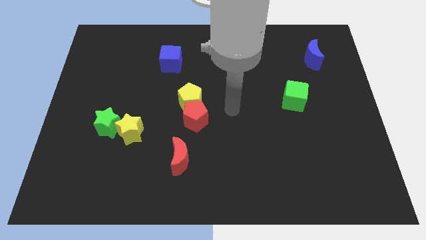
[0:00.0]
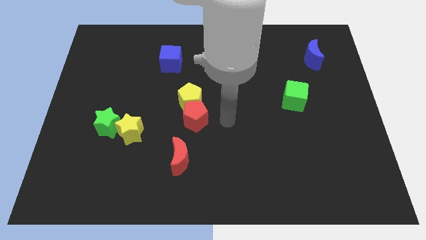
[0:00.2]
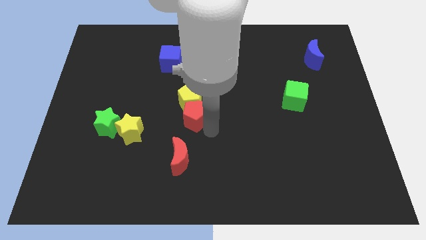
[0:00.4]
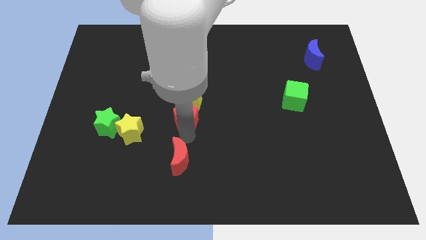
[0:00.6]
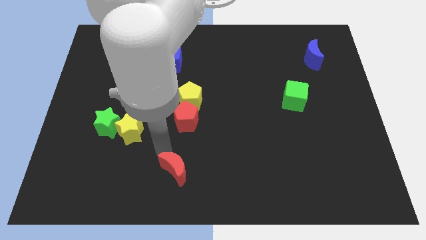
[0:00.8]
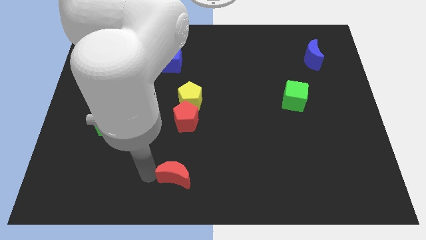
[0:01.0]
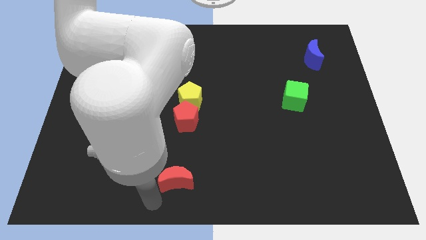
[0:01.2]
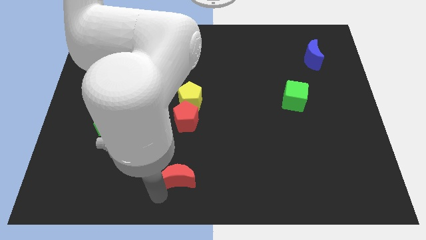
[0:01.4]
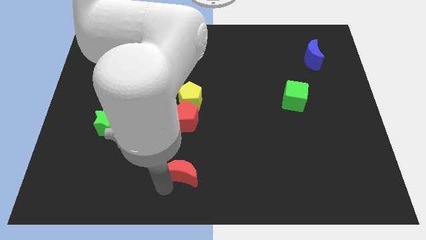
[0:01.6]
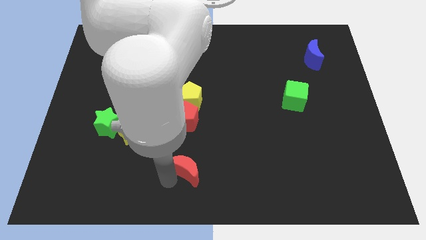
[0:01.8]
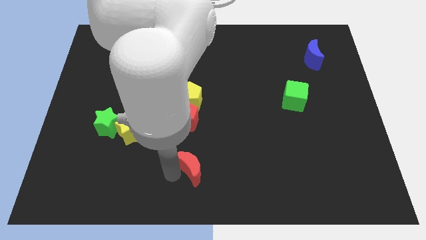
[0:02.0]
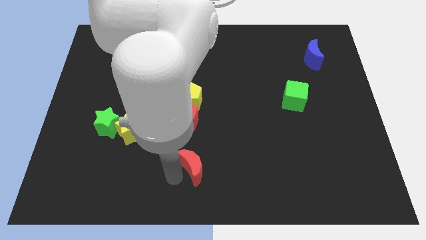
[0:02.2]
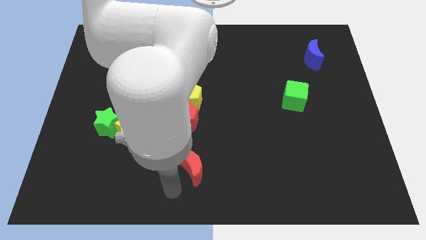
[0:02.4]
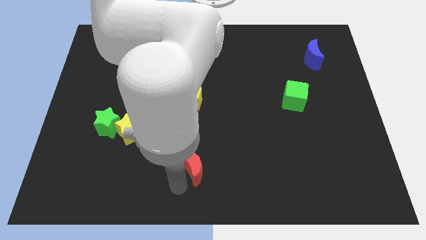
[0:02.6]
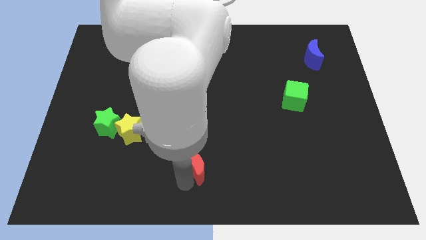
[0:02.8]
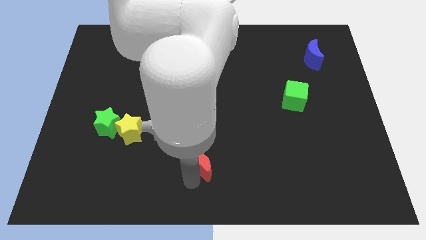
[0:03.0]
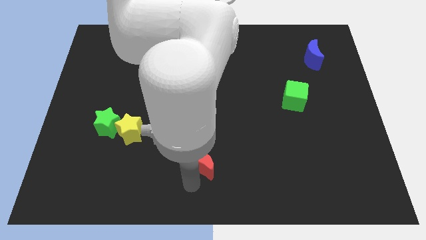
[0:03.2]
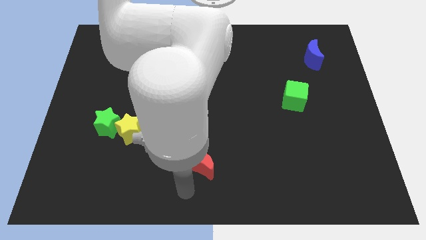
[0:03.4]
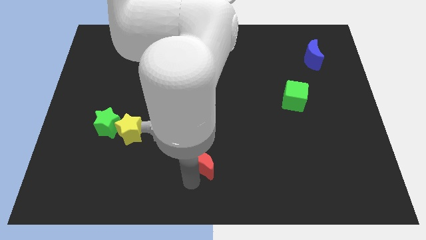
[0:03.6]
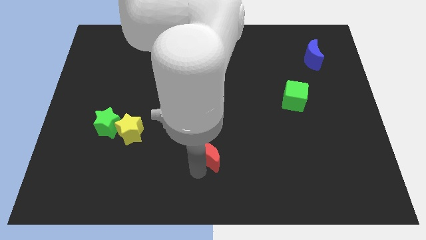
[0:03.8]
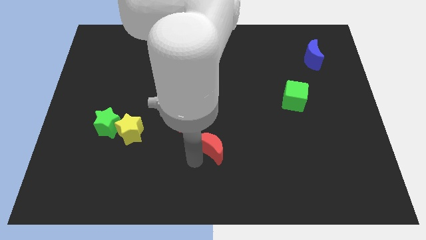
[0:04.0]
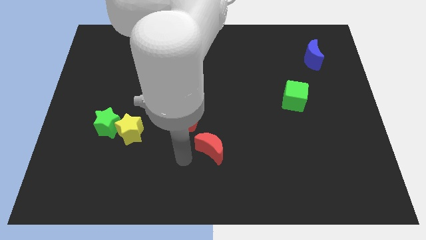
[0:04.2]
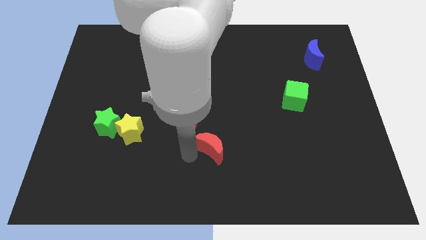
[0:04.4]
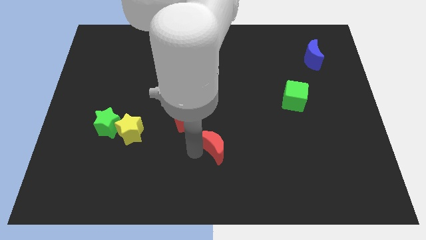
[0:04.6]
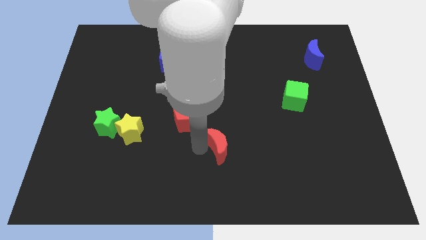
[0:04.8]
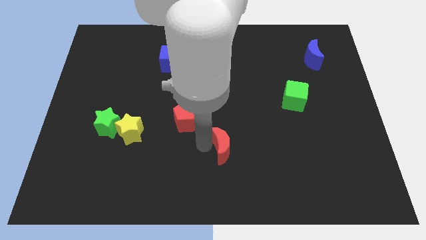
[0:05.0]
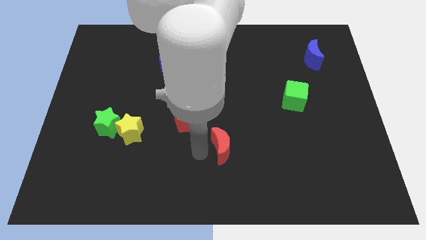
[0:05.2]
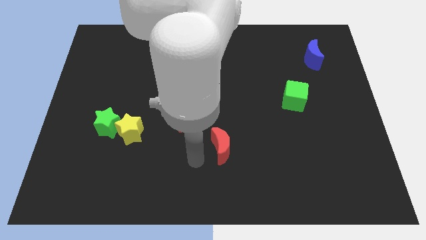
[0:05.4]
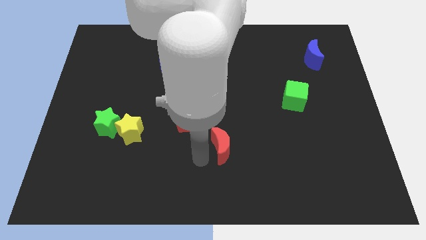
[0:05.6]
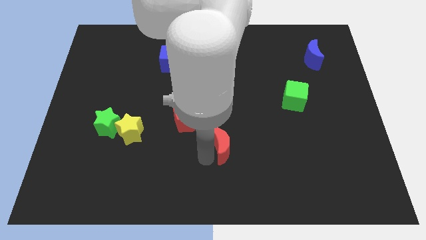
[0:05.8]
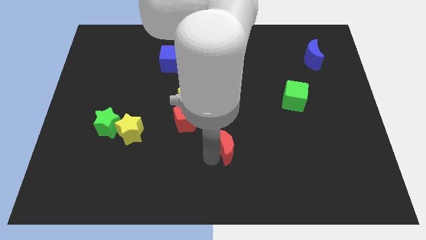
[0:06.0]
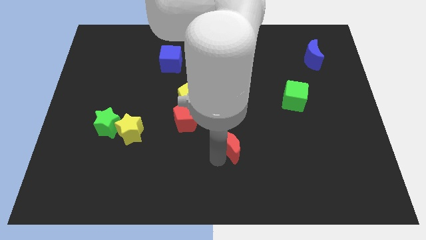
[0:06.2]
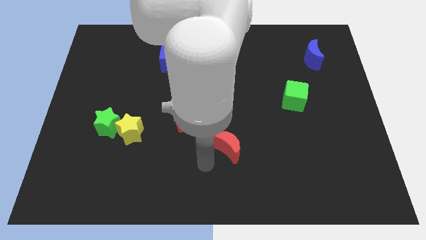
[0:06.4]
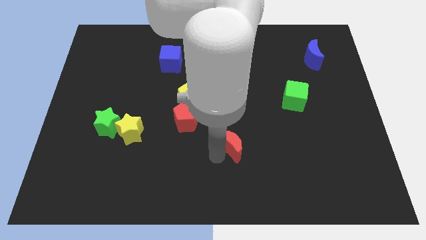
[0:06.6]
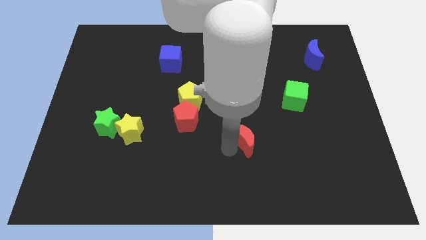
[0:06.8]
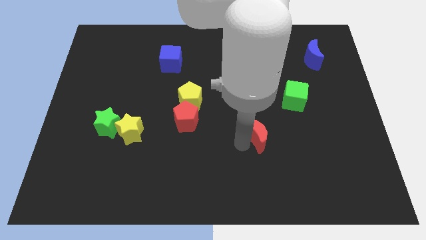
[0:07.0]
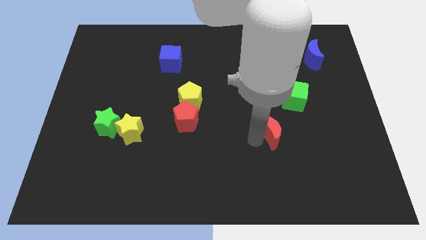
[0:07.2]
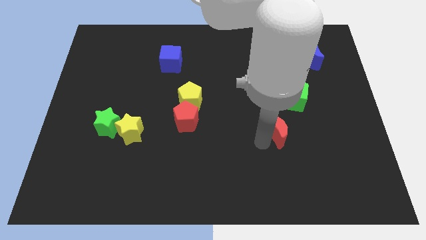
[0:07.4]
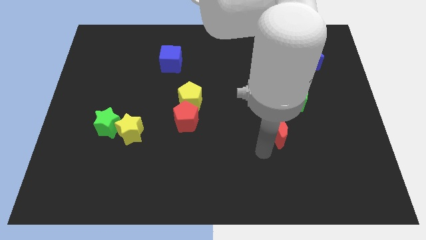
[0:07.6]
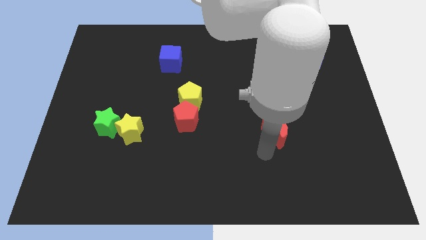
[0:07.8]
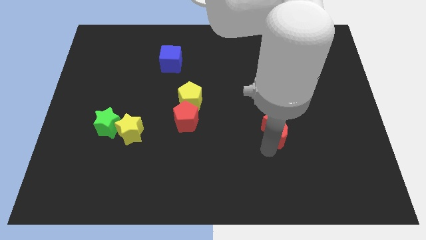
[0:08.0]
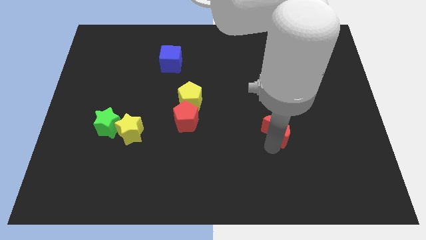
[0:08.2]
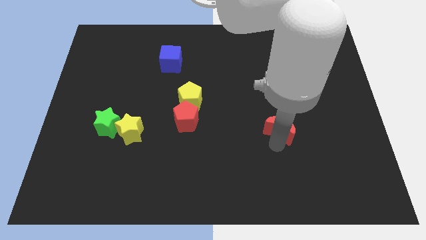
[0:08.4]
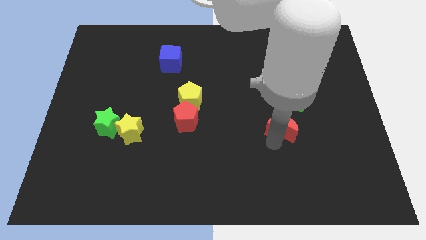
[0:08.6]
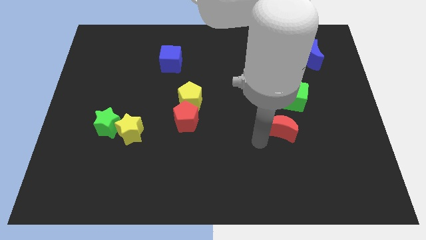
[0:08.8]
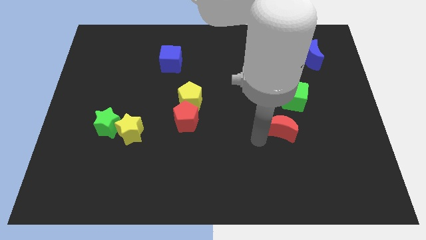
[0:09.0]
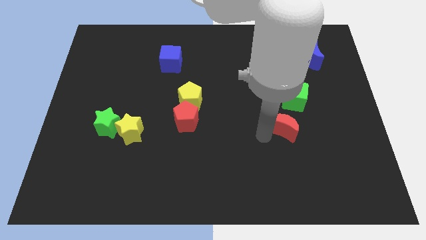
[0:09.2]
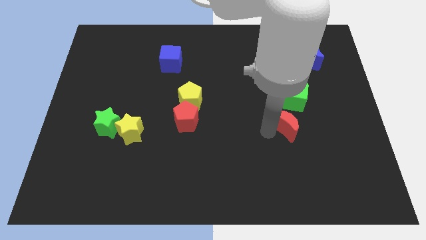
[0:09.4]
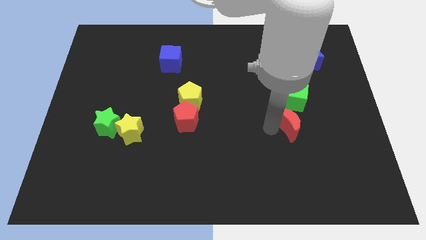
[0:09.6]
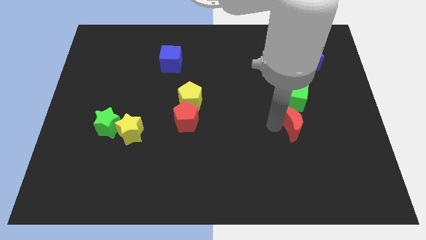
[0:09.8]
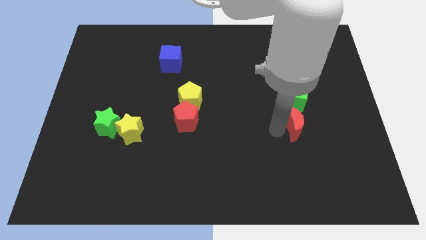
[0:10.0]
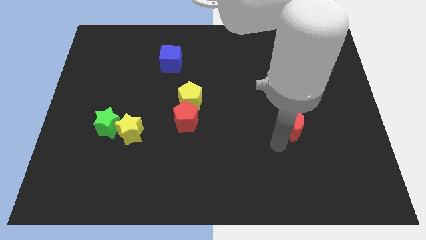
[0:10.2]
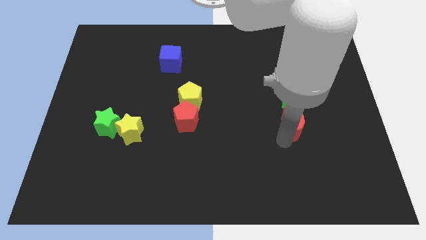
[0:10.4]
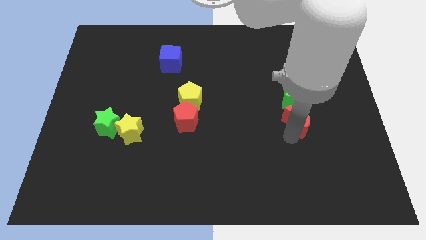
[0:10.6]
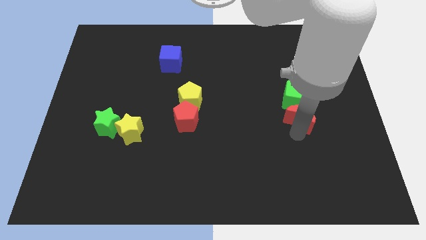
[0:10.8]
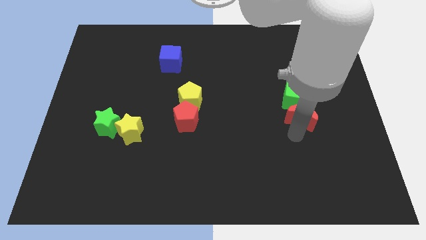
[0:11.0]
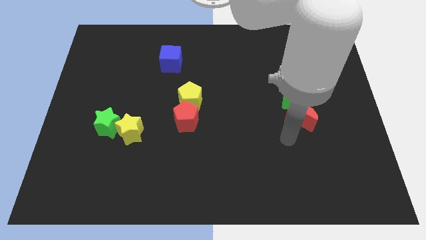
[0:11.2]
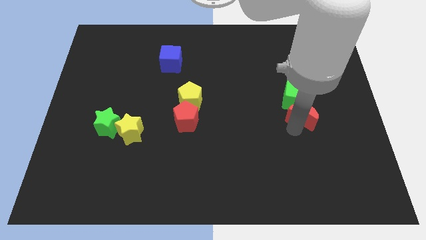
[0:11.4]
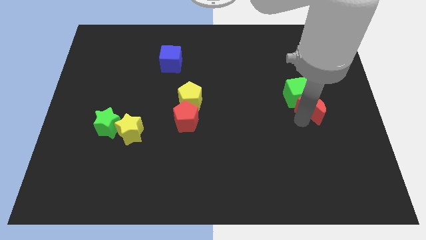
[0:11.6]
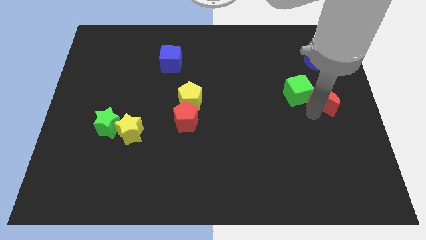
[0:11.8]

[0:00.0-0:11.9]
push the red moon to the bottom of the blue moon

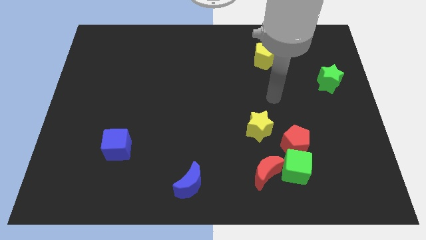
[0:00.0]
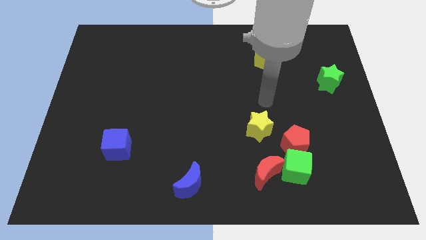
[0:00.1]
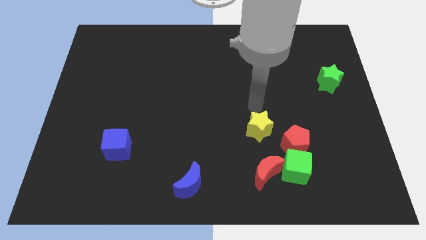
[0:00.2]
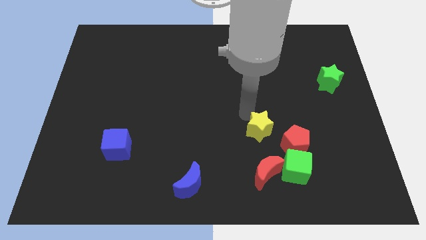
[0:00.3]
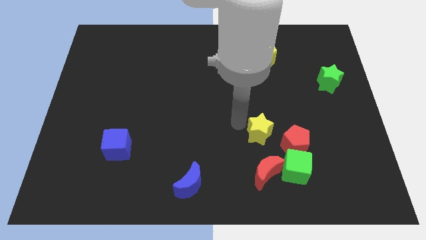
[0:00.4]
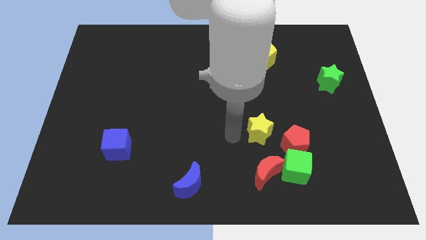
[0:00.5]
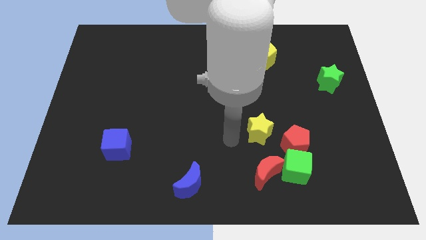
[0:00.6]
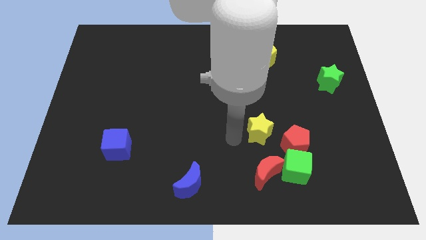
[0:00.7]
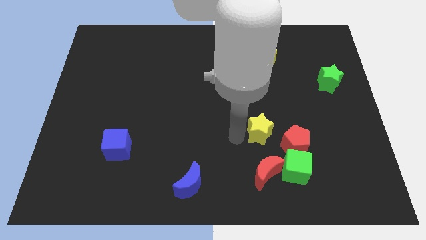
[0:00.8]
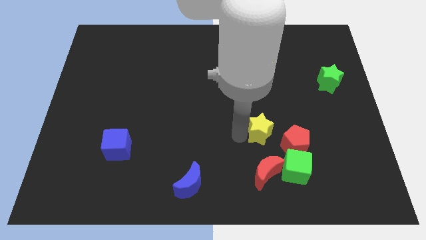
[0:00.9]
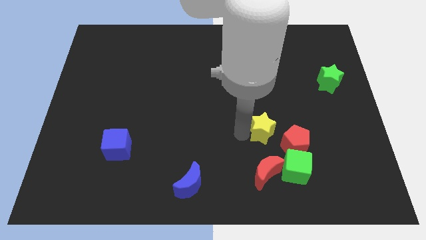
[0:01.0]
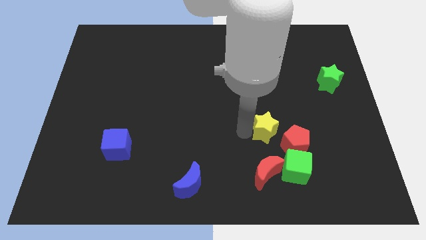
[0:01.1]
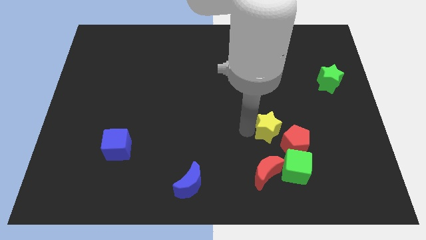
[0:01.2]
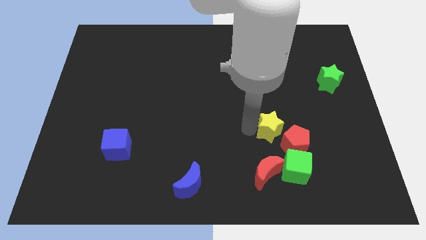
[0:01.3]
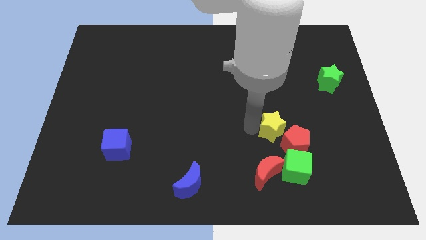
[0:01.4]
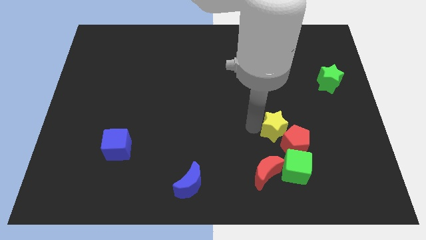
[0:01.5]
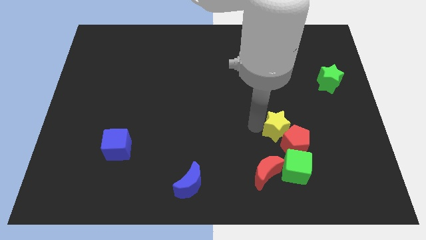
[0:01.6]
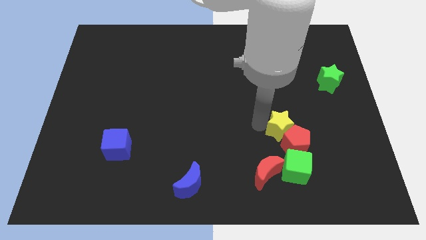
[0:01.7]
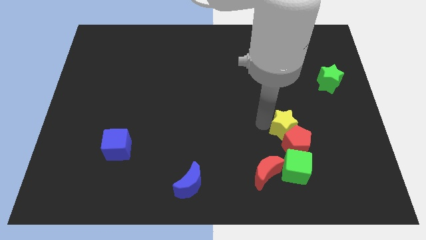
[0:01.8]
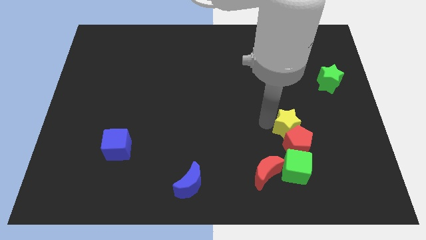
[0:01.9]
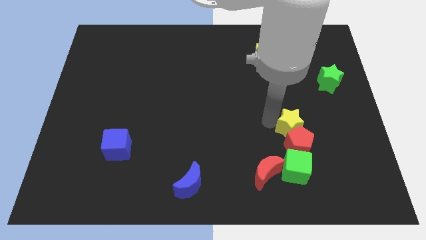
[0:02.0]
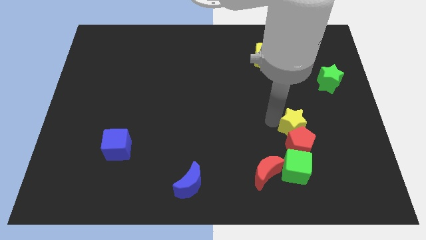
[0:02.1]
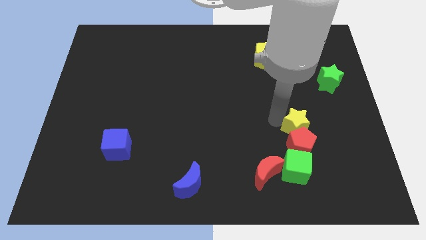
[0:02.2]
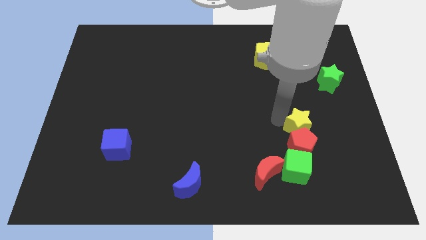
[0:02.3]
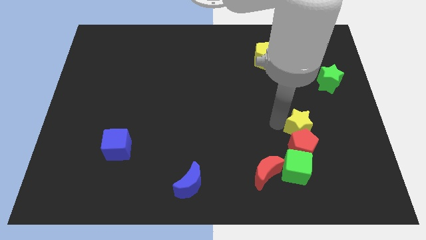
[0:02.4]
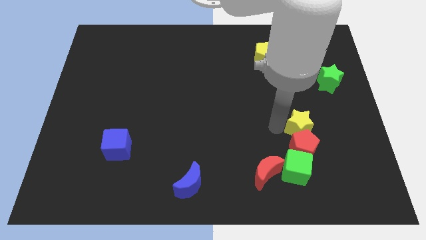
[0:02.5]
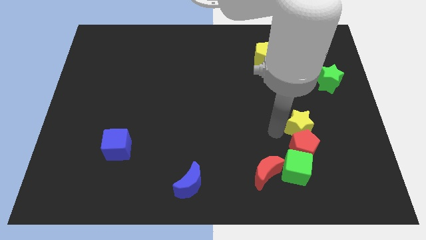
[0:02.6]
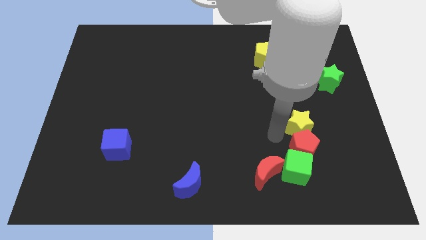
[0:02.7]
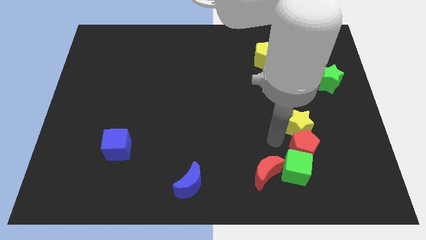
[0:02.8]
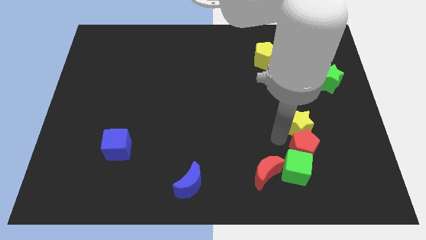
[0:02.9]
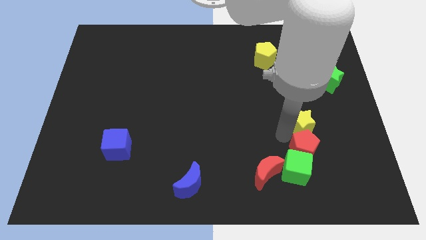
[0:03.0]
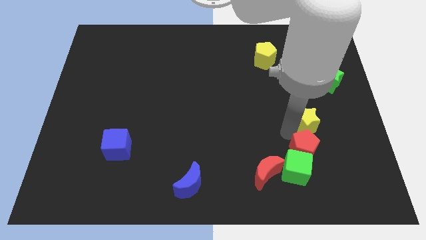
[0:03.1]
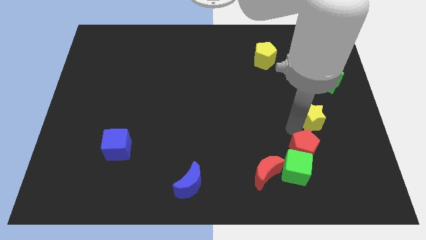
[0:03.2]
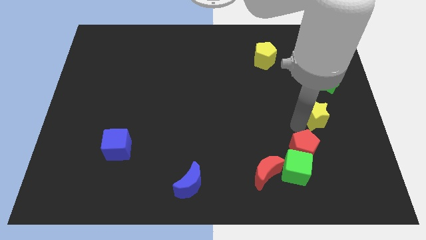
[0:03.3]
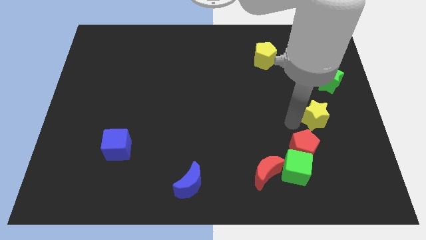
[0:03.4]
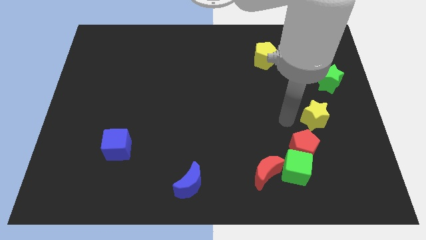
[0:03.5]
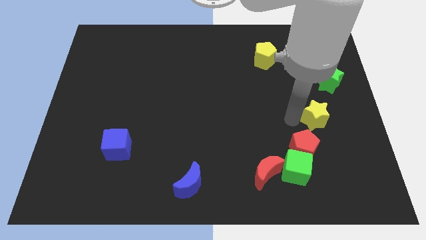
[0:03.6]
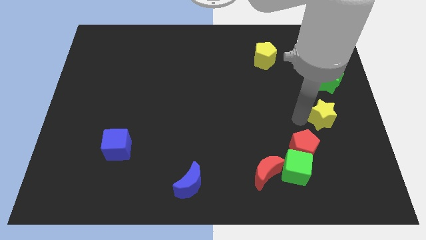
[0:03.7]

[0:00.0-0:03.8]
push the yellow star to the bottom side of the green star
